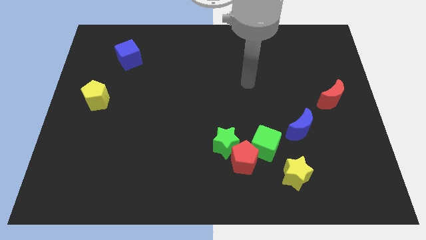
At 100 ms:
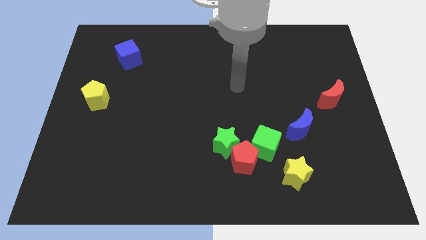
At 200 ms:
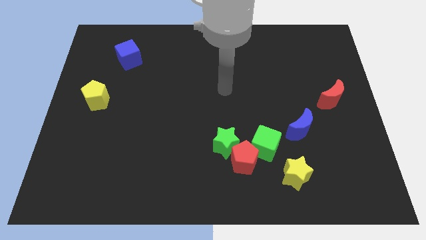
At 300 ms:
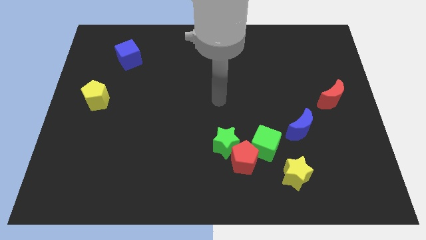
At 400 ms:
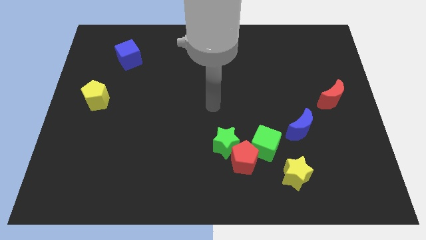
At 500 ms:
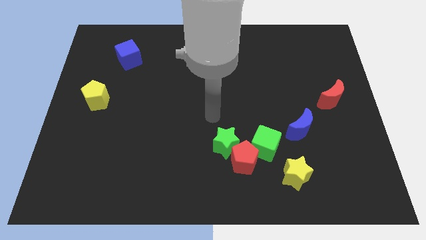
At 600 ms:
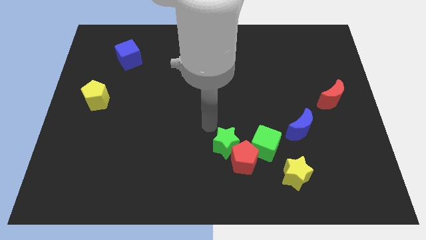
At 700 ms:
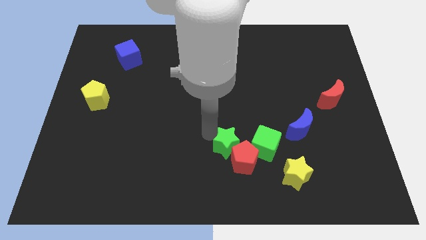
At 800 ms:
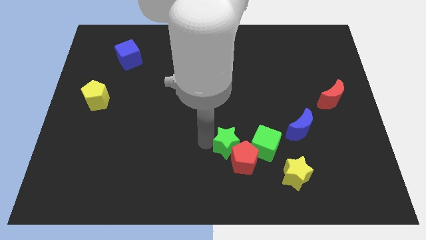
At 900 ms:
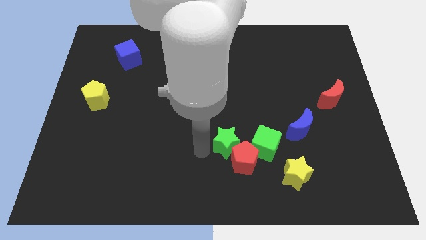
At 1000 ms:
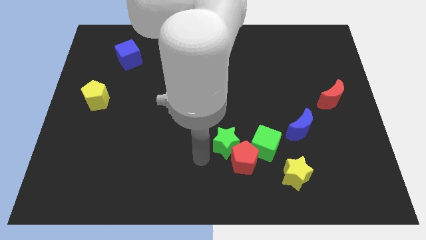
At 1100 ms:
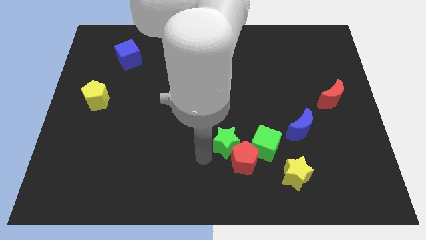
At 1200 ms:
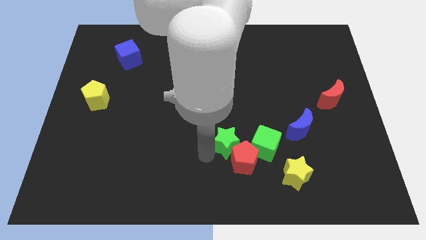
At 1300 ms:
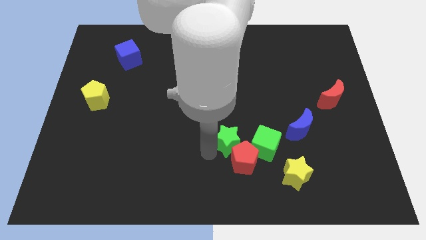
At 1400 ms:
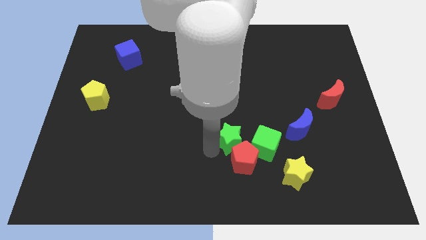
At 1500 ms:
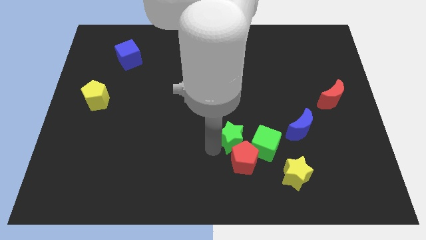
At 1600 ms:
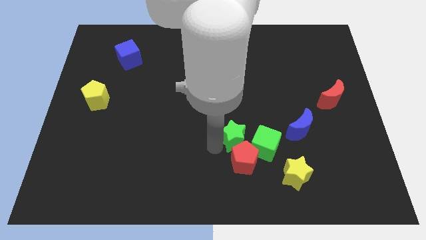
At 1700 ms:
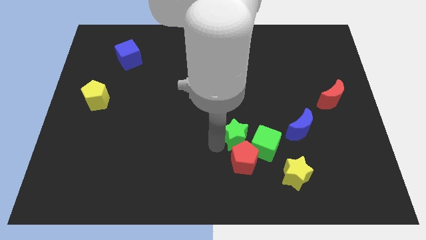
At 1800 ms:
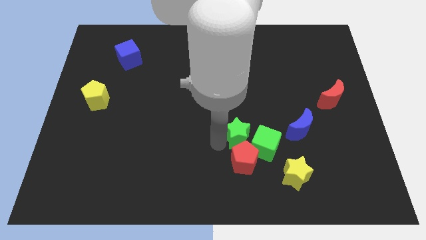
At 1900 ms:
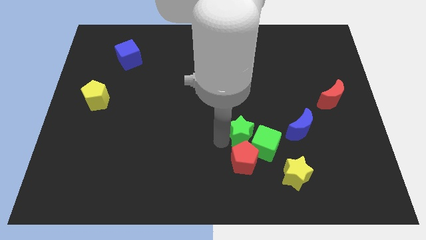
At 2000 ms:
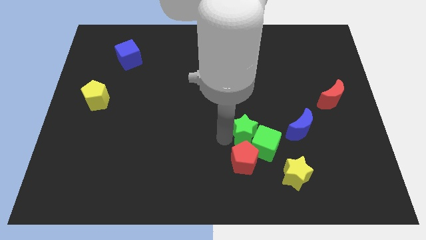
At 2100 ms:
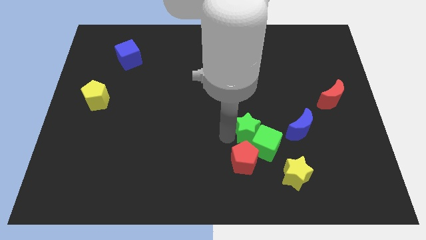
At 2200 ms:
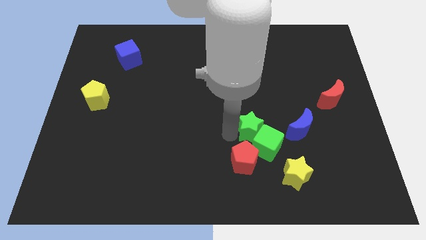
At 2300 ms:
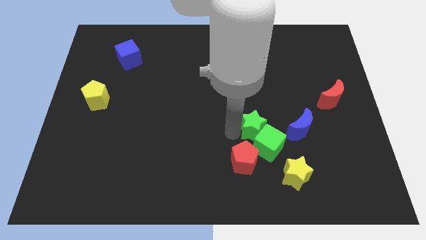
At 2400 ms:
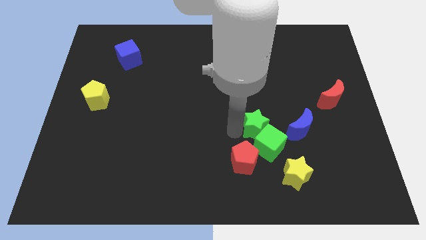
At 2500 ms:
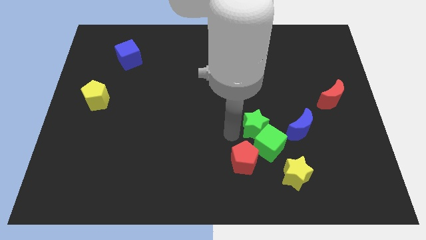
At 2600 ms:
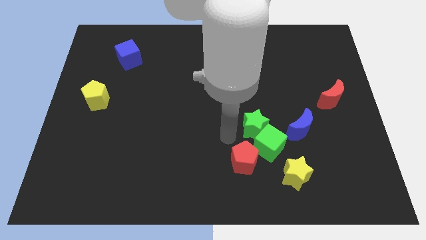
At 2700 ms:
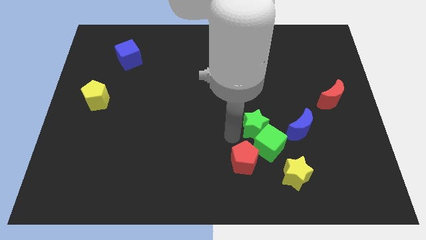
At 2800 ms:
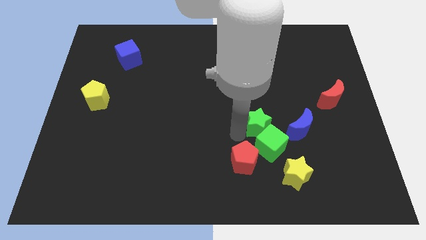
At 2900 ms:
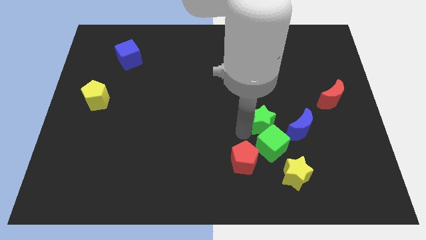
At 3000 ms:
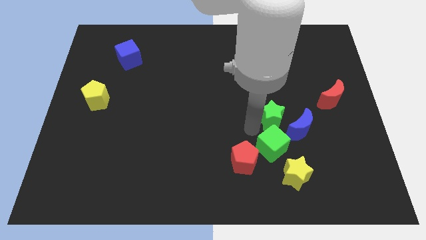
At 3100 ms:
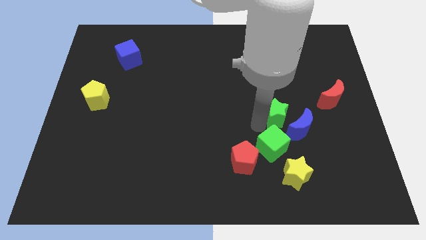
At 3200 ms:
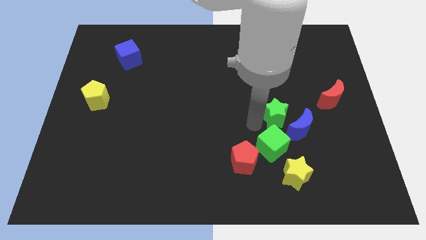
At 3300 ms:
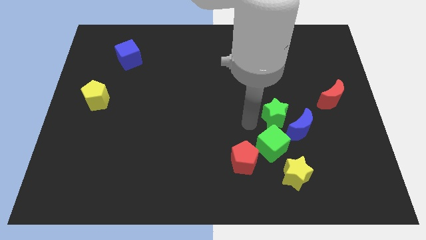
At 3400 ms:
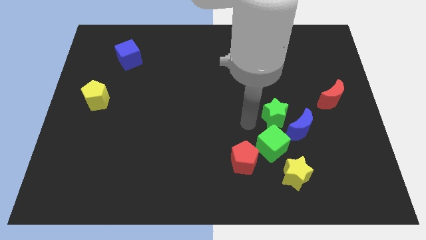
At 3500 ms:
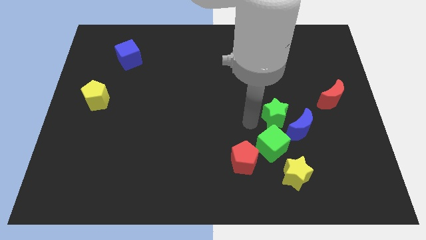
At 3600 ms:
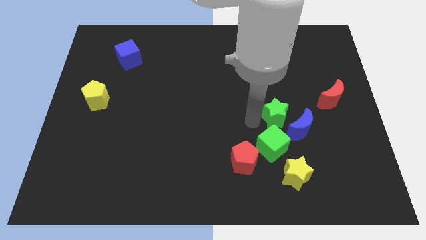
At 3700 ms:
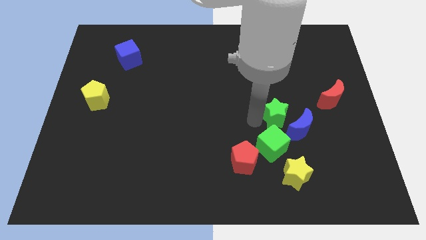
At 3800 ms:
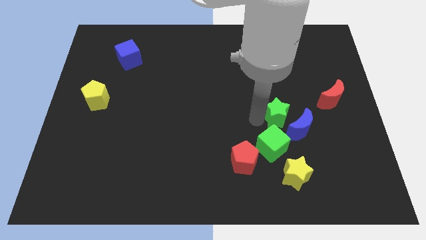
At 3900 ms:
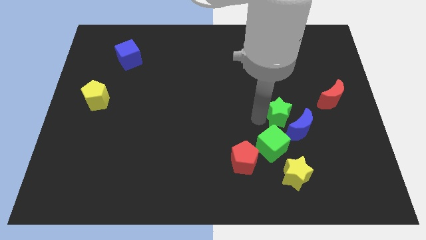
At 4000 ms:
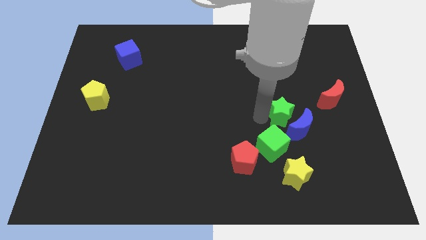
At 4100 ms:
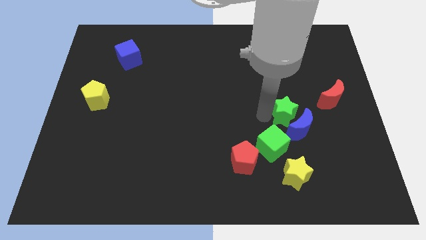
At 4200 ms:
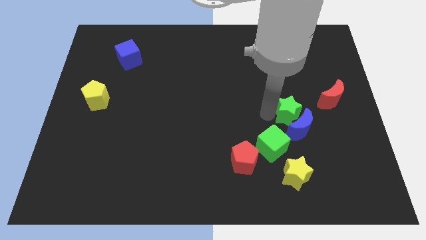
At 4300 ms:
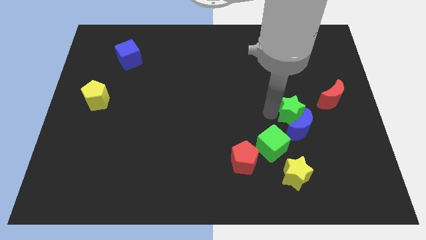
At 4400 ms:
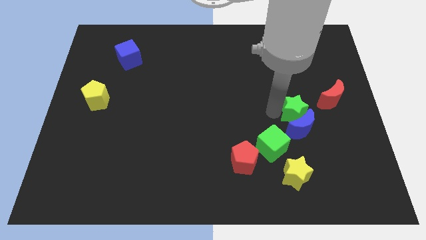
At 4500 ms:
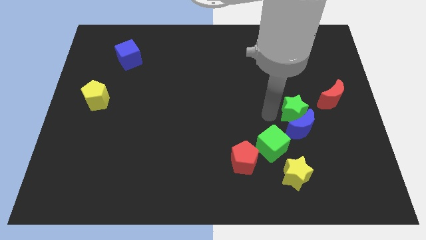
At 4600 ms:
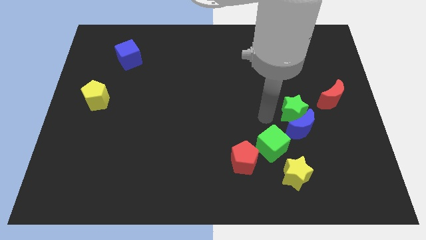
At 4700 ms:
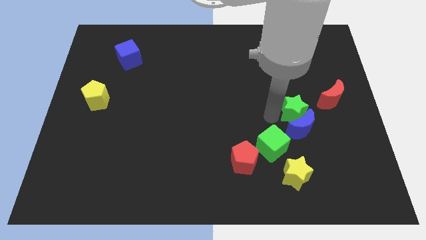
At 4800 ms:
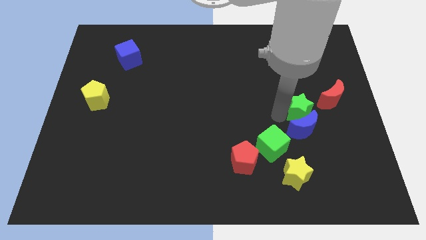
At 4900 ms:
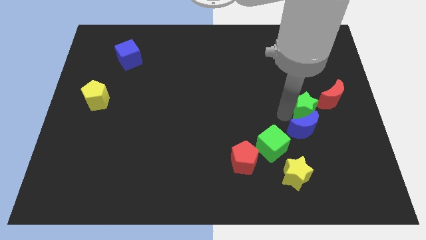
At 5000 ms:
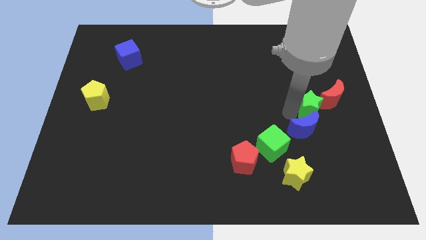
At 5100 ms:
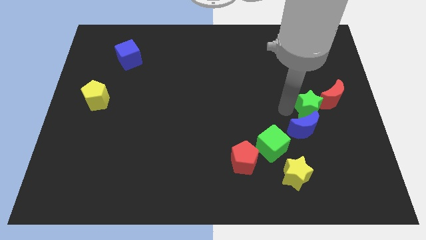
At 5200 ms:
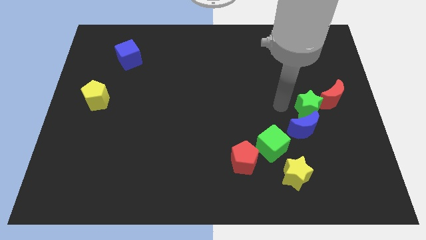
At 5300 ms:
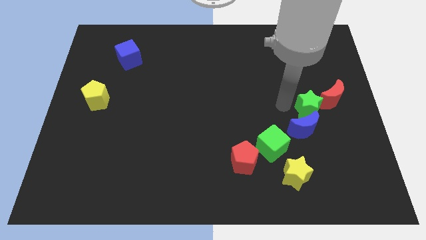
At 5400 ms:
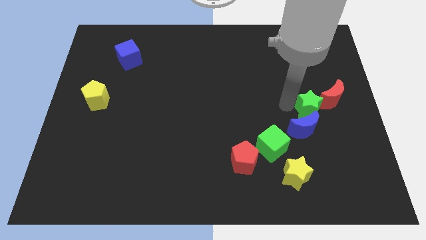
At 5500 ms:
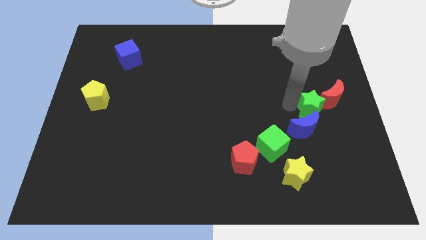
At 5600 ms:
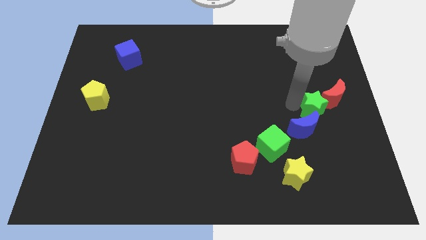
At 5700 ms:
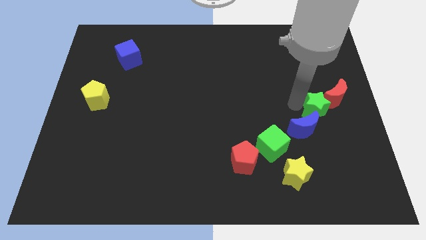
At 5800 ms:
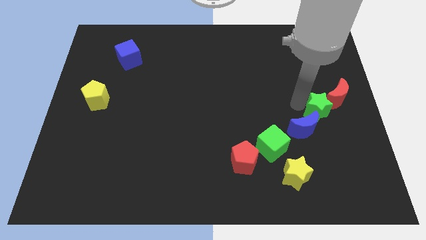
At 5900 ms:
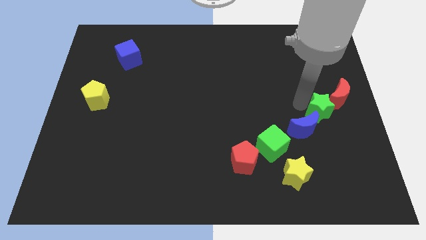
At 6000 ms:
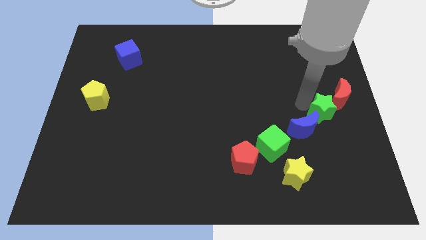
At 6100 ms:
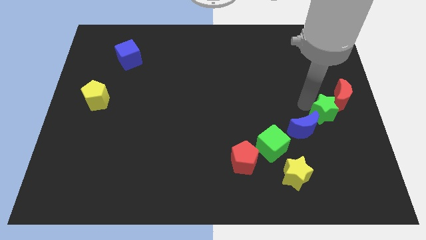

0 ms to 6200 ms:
push the green star to the right side of the board
